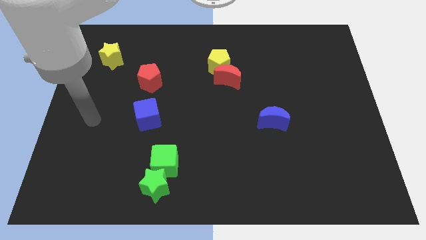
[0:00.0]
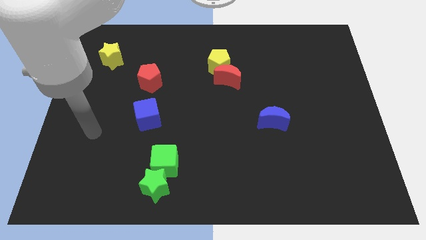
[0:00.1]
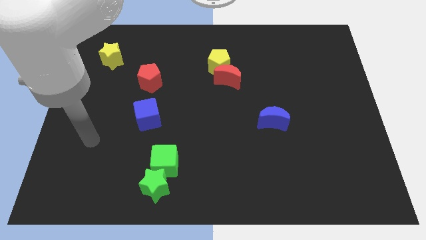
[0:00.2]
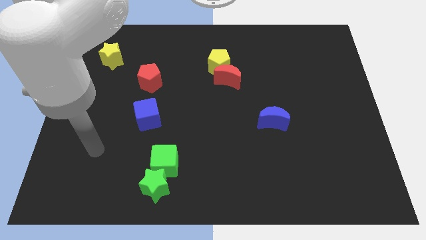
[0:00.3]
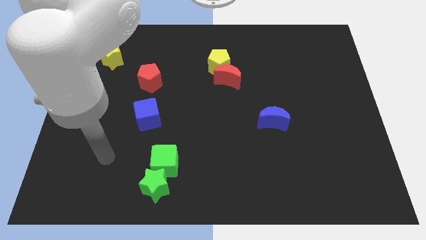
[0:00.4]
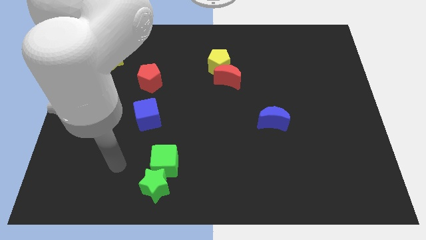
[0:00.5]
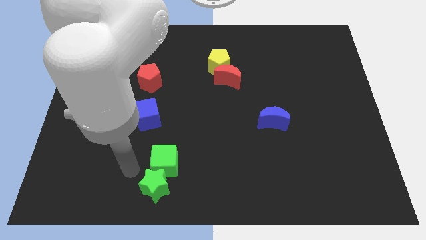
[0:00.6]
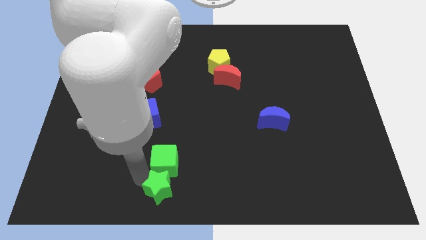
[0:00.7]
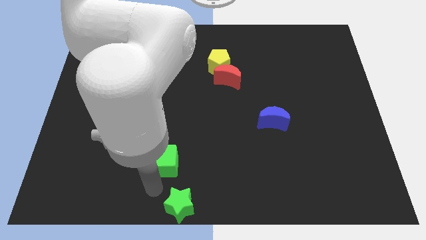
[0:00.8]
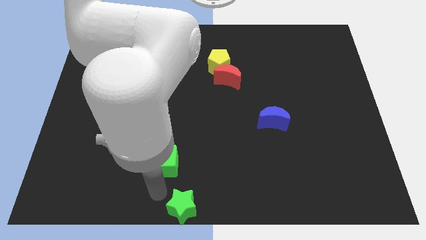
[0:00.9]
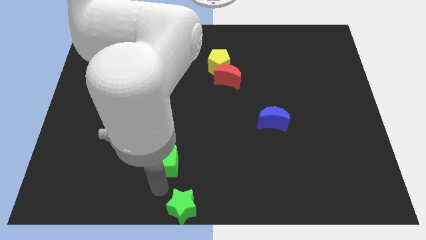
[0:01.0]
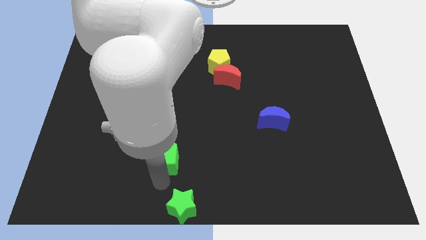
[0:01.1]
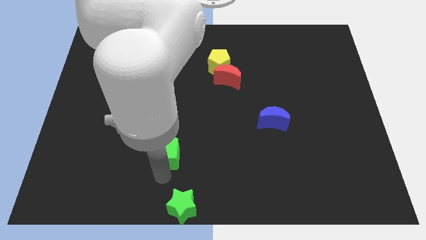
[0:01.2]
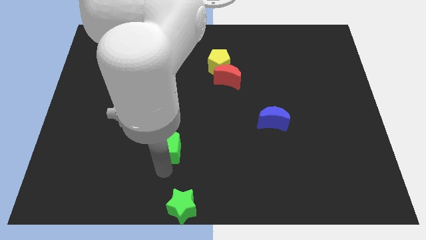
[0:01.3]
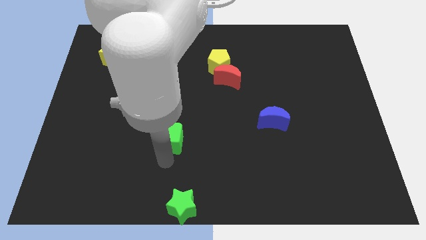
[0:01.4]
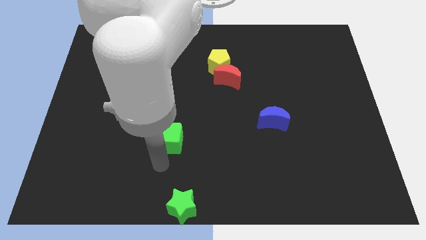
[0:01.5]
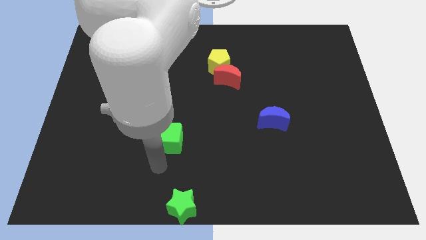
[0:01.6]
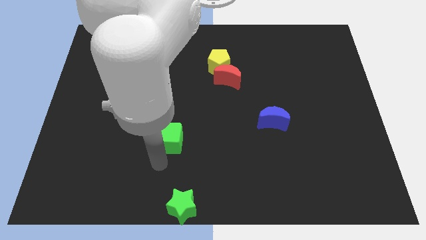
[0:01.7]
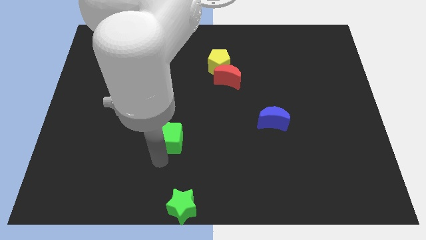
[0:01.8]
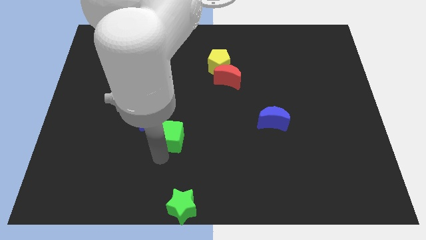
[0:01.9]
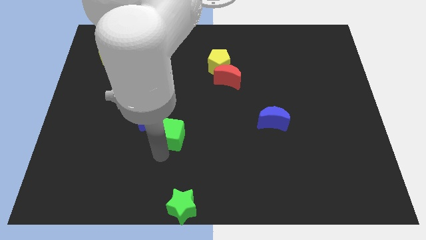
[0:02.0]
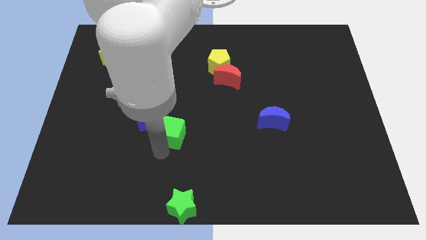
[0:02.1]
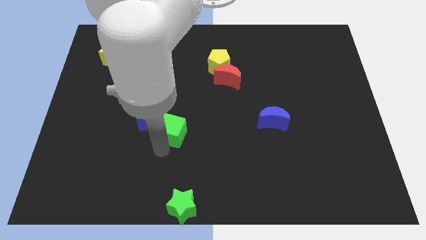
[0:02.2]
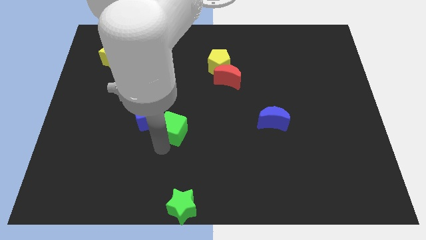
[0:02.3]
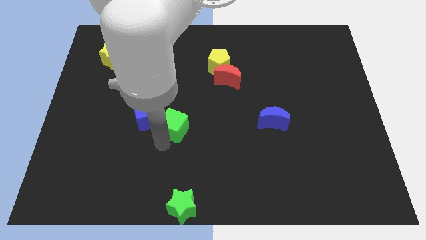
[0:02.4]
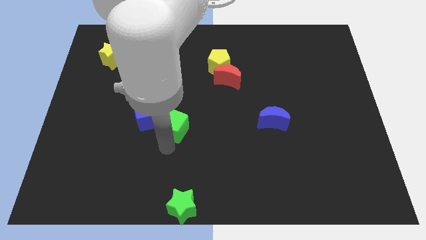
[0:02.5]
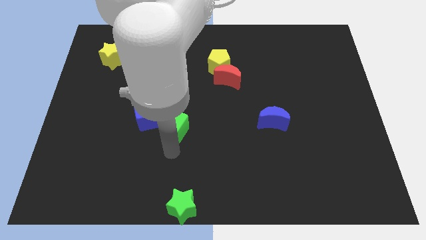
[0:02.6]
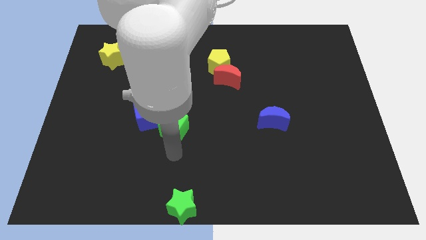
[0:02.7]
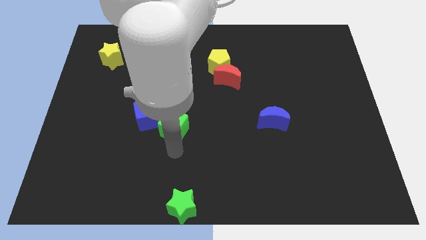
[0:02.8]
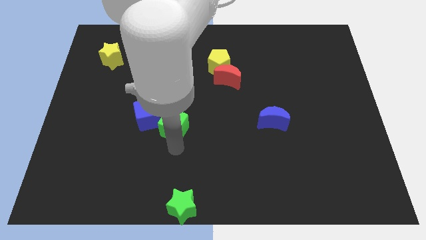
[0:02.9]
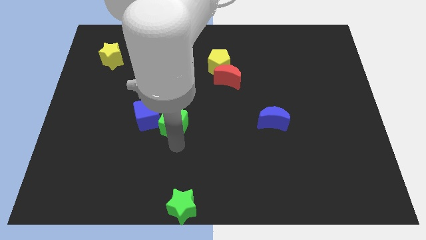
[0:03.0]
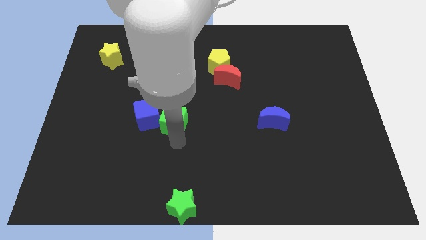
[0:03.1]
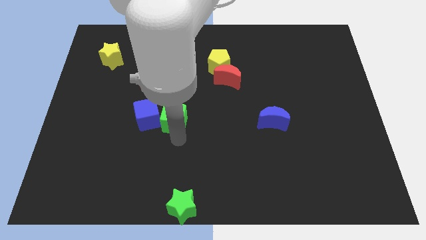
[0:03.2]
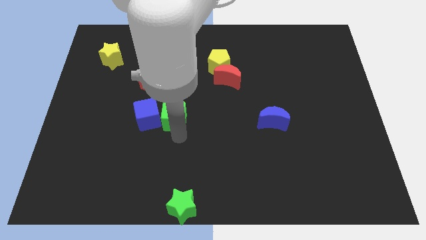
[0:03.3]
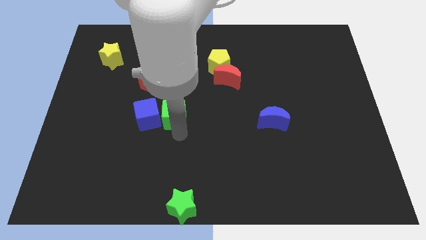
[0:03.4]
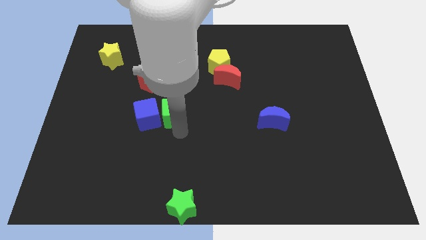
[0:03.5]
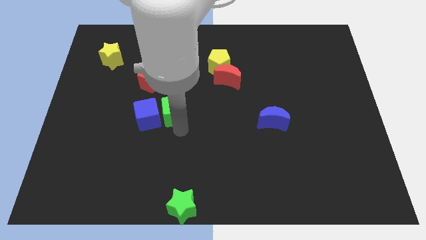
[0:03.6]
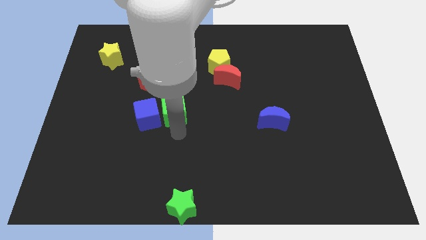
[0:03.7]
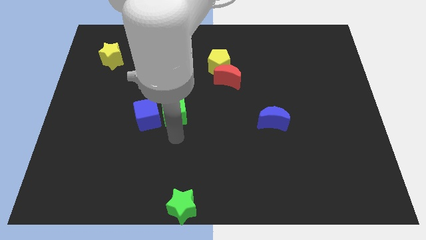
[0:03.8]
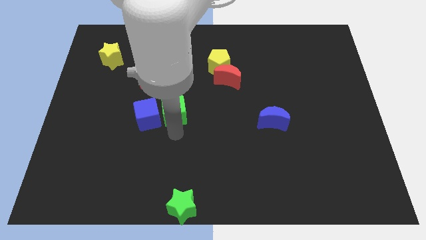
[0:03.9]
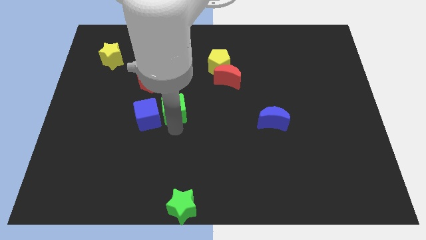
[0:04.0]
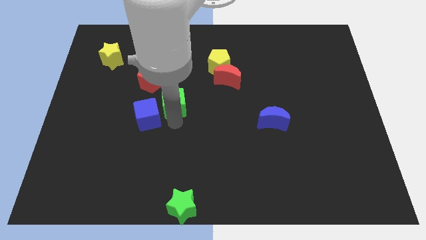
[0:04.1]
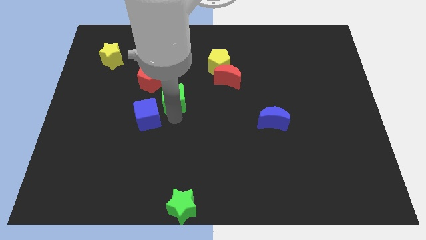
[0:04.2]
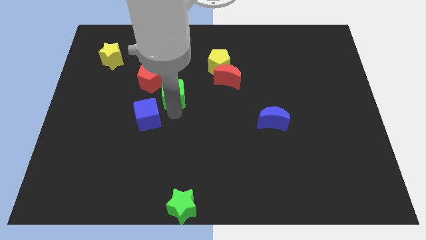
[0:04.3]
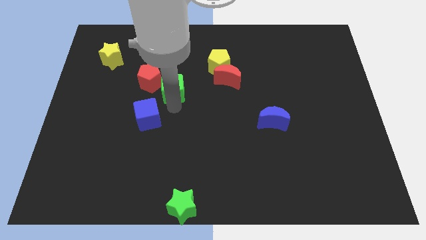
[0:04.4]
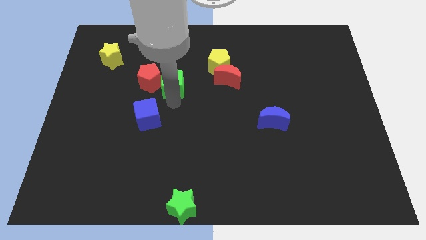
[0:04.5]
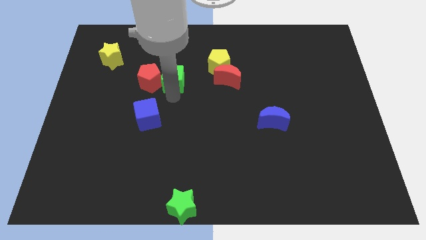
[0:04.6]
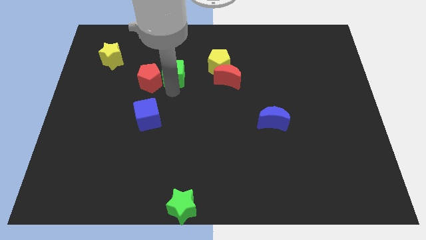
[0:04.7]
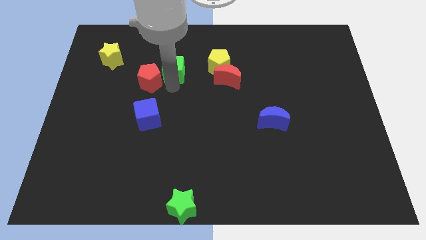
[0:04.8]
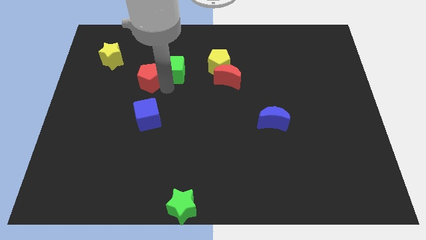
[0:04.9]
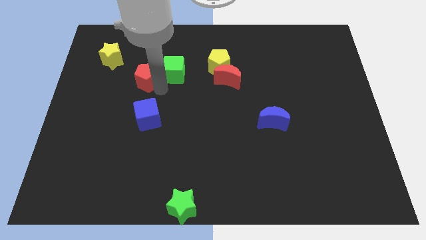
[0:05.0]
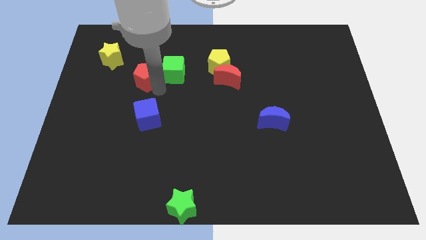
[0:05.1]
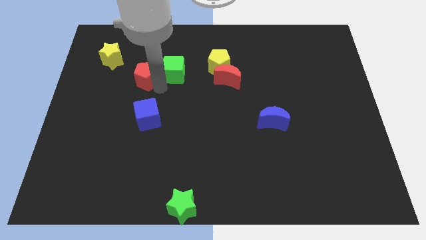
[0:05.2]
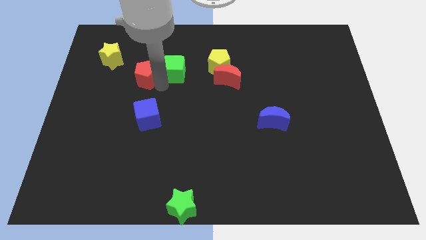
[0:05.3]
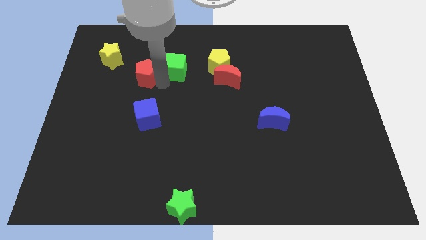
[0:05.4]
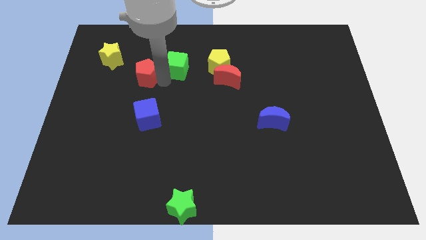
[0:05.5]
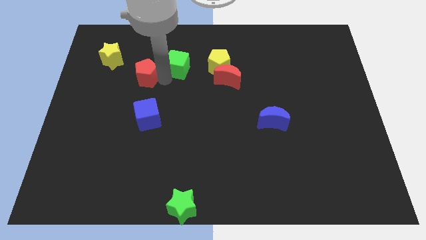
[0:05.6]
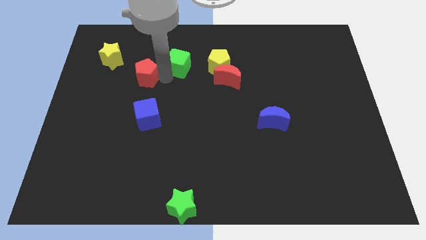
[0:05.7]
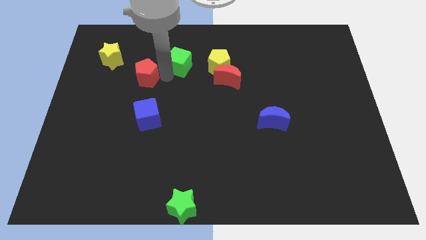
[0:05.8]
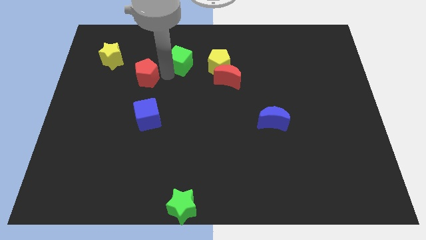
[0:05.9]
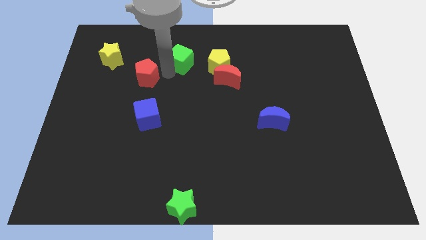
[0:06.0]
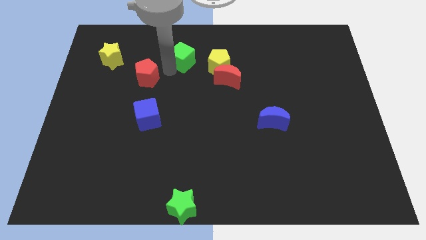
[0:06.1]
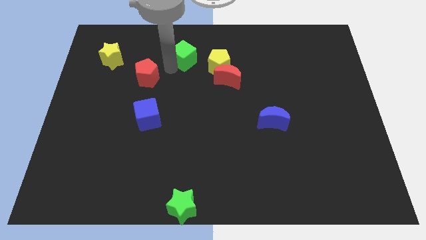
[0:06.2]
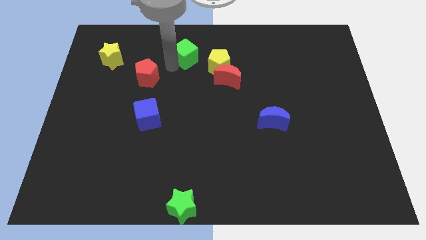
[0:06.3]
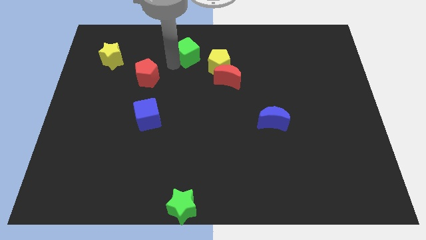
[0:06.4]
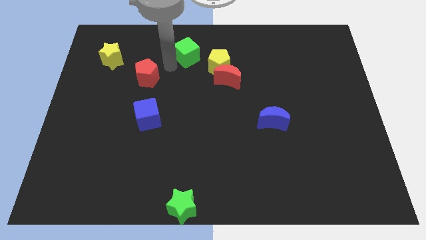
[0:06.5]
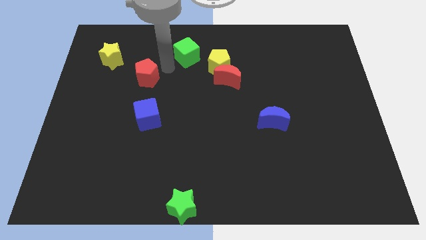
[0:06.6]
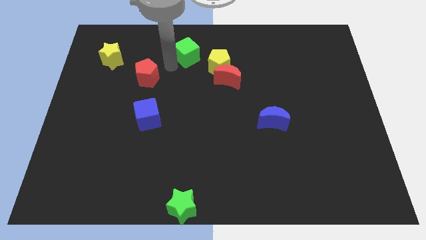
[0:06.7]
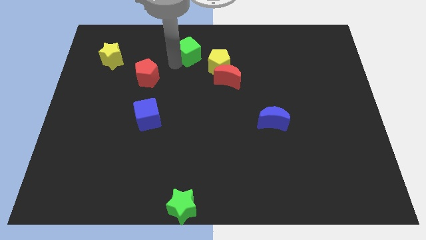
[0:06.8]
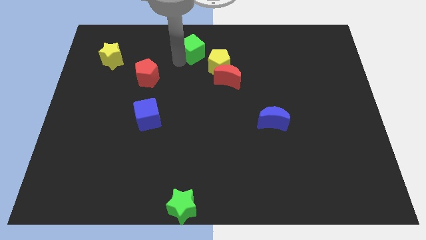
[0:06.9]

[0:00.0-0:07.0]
slide the green cube to the towards your base

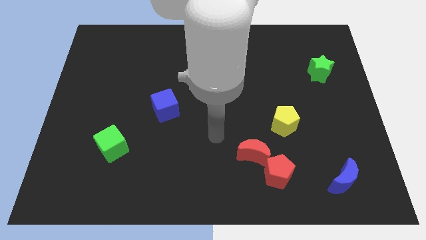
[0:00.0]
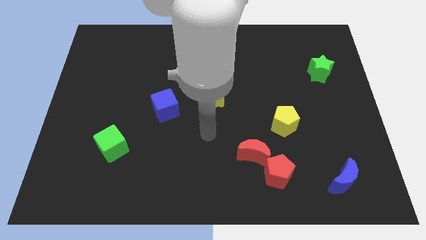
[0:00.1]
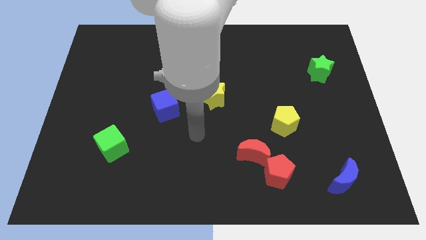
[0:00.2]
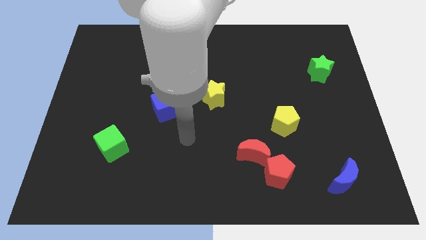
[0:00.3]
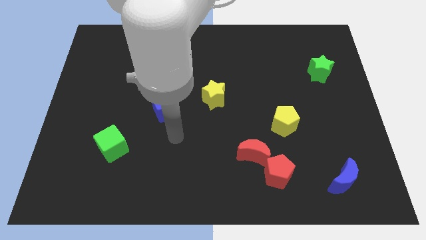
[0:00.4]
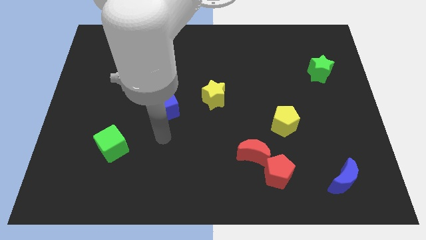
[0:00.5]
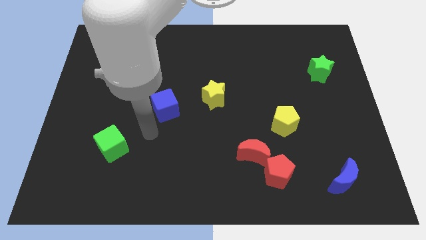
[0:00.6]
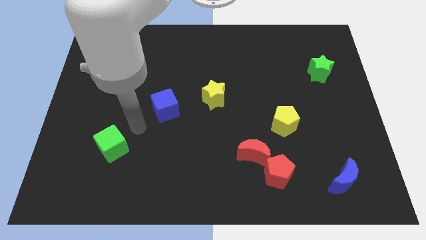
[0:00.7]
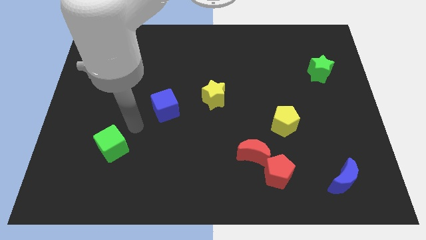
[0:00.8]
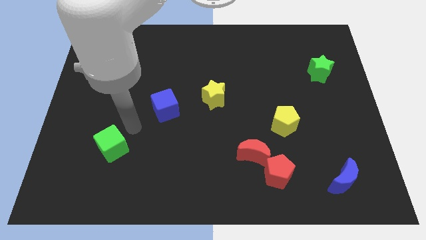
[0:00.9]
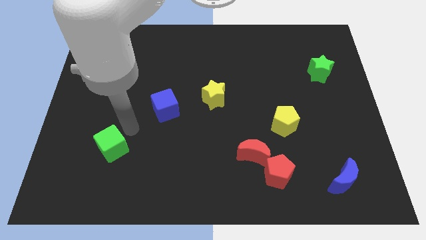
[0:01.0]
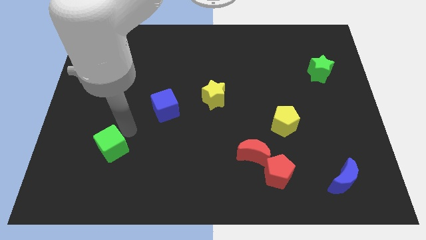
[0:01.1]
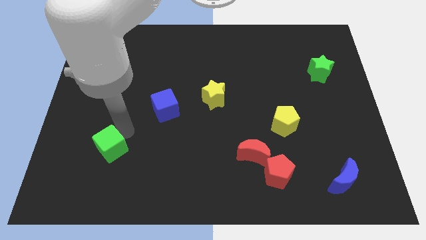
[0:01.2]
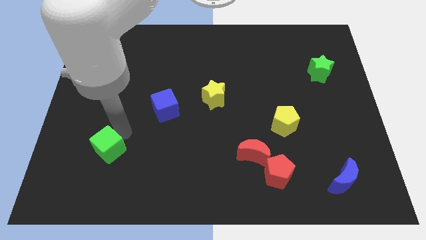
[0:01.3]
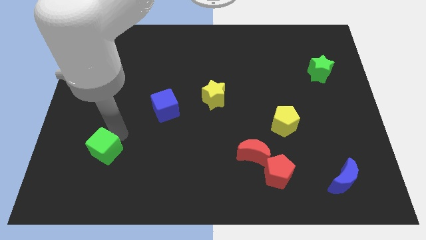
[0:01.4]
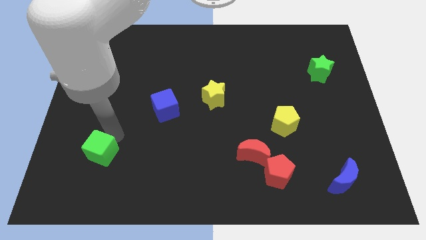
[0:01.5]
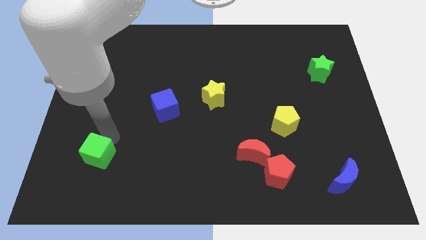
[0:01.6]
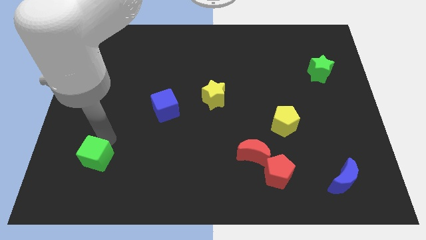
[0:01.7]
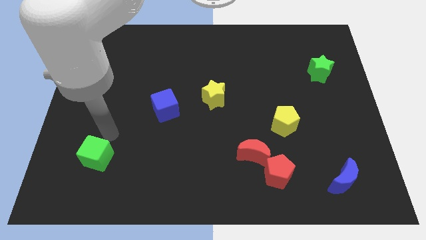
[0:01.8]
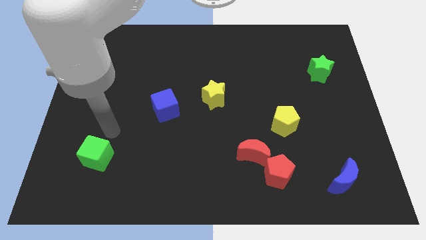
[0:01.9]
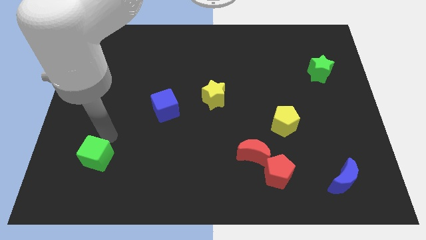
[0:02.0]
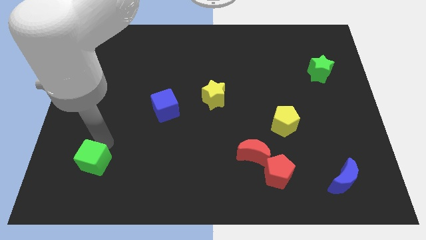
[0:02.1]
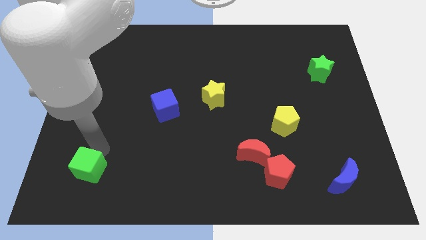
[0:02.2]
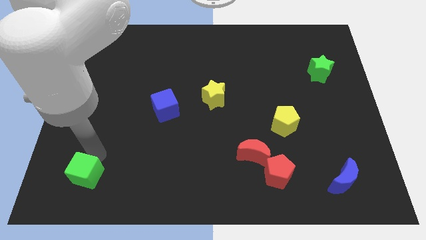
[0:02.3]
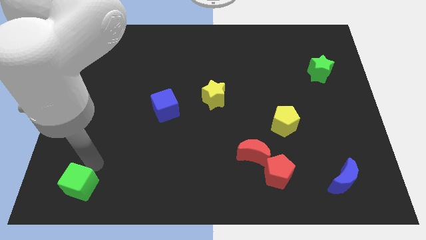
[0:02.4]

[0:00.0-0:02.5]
put the green cube to the lower left corner
